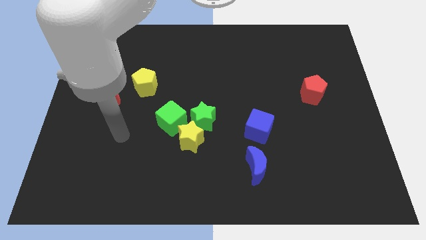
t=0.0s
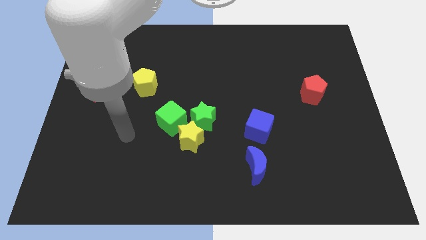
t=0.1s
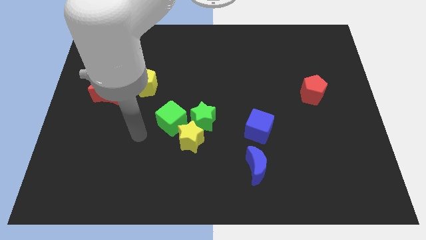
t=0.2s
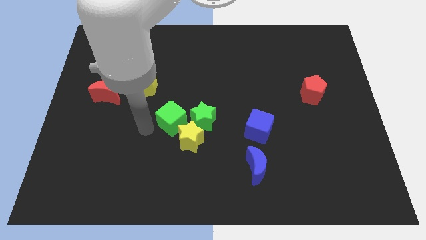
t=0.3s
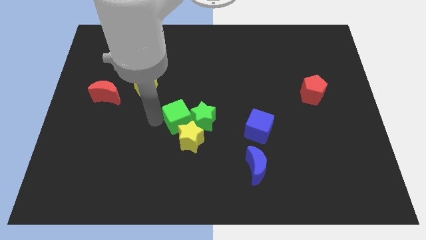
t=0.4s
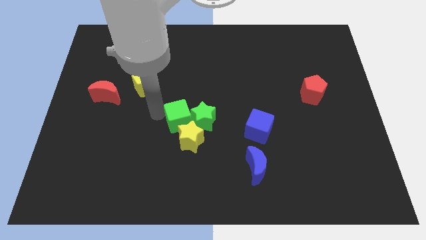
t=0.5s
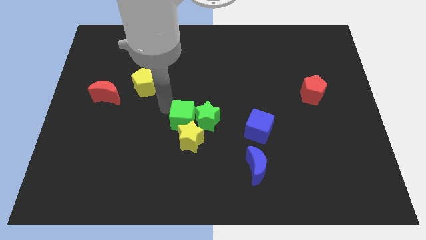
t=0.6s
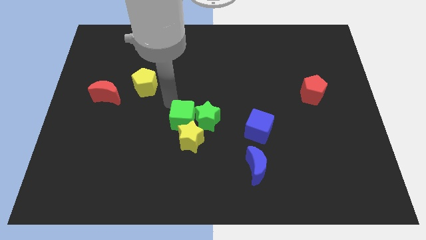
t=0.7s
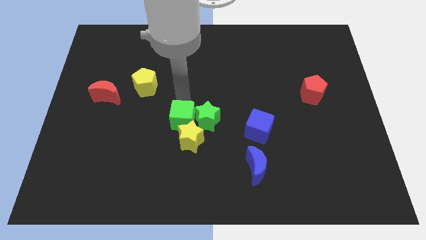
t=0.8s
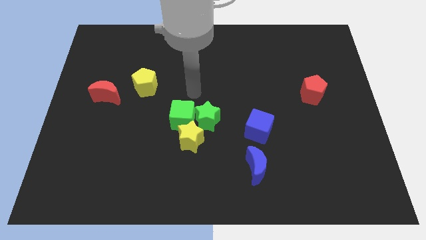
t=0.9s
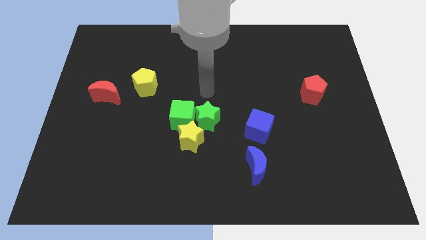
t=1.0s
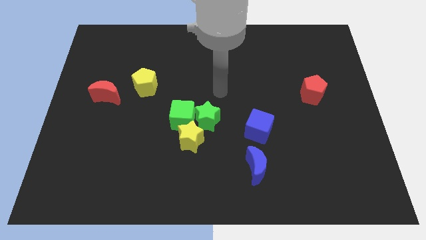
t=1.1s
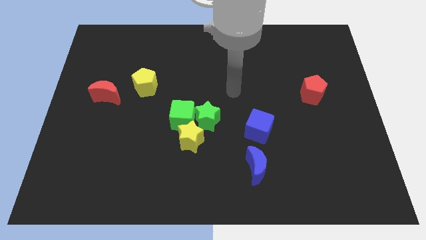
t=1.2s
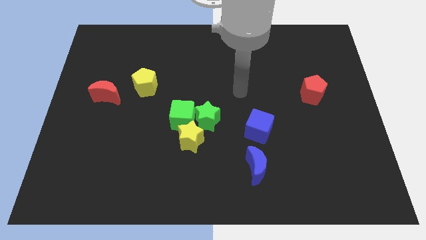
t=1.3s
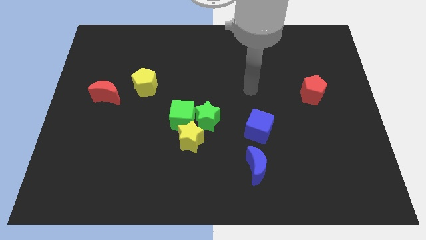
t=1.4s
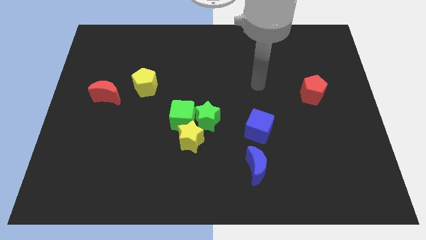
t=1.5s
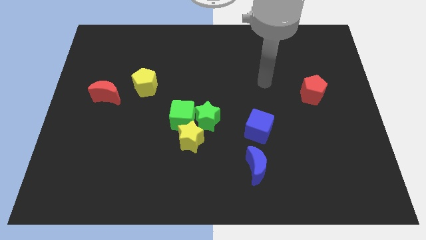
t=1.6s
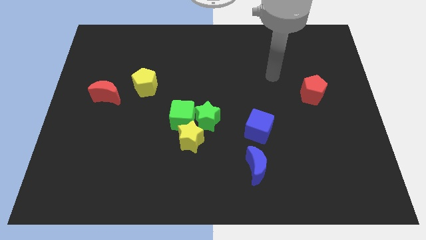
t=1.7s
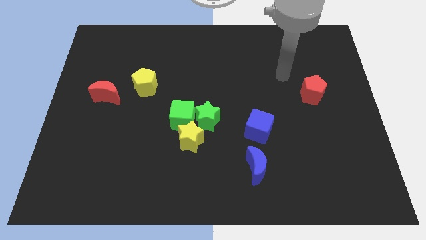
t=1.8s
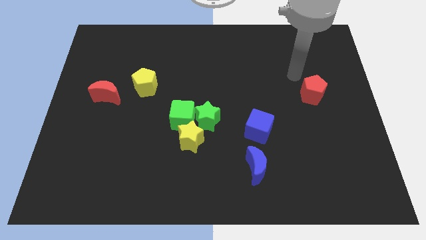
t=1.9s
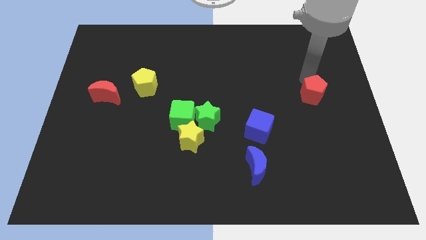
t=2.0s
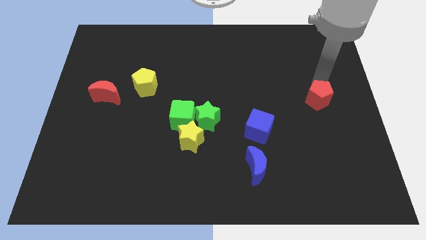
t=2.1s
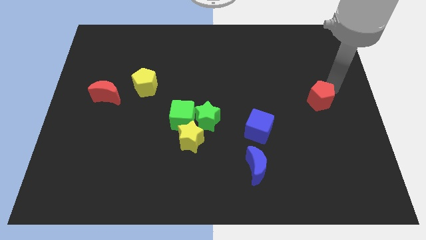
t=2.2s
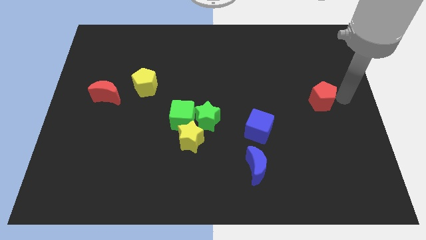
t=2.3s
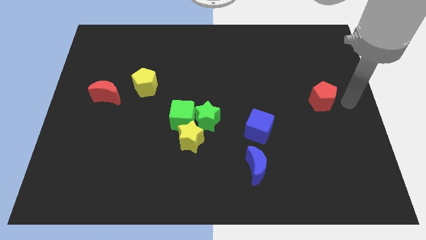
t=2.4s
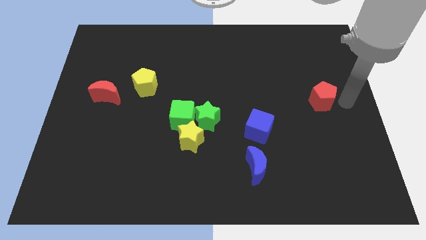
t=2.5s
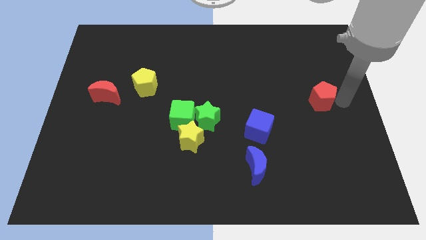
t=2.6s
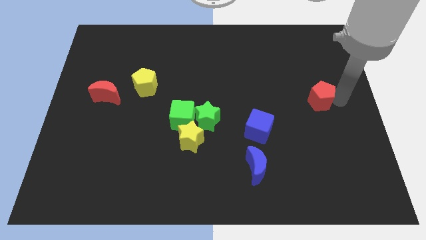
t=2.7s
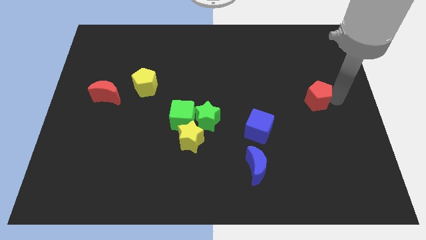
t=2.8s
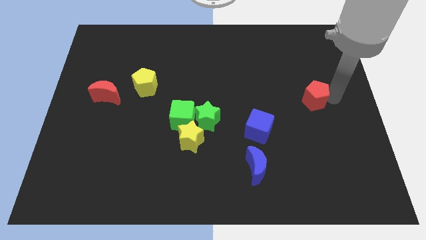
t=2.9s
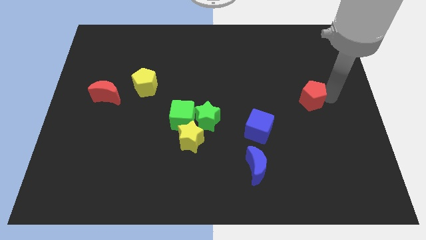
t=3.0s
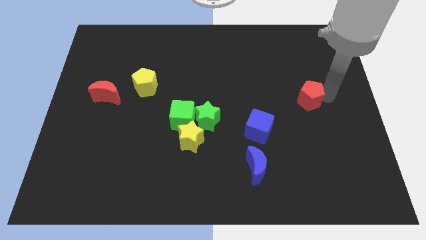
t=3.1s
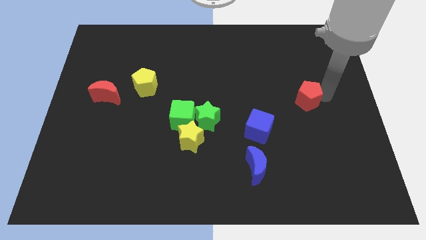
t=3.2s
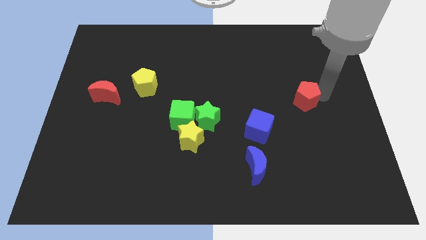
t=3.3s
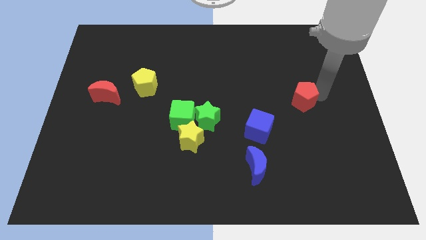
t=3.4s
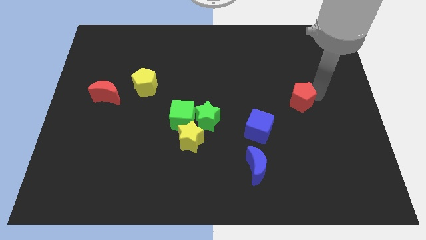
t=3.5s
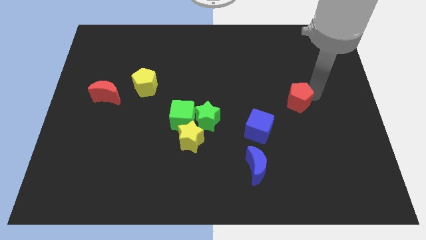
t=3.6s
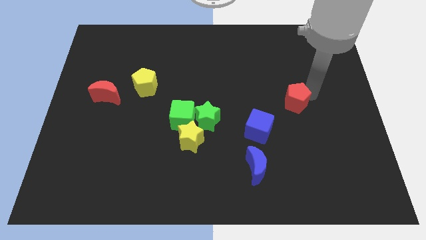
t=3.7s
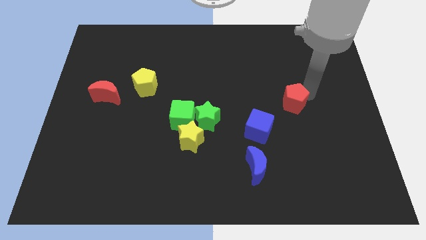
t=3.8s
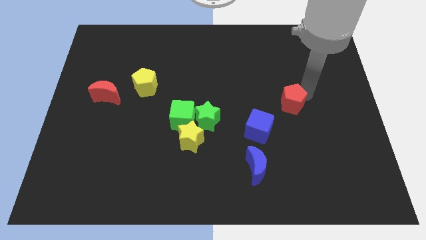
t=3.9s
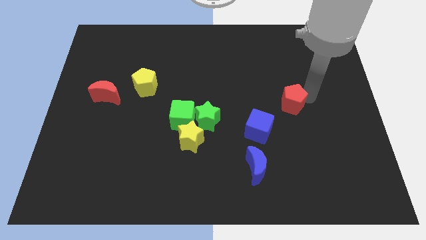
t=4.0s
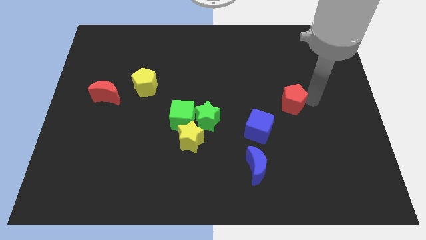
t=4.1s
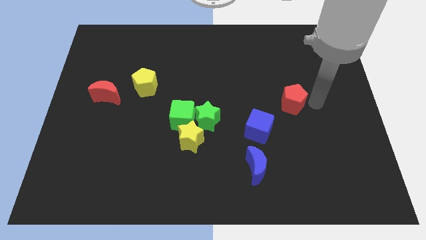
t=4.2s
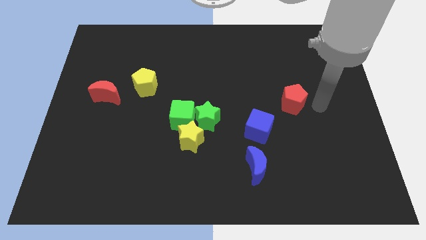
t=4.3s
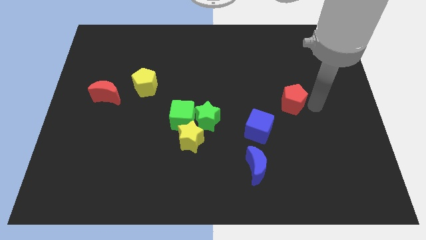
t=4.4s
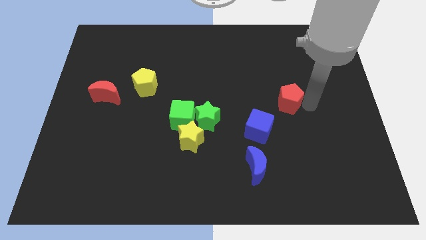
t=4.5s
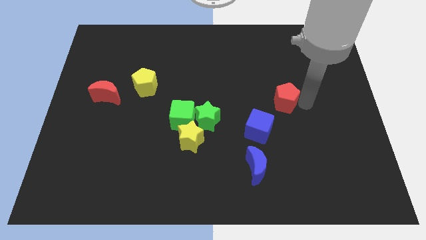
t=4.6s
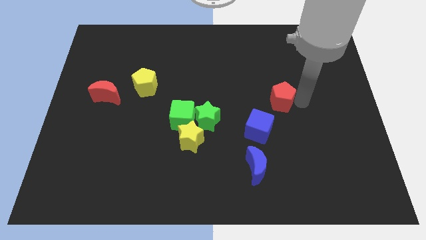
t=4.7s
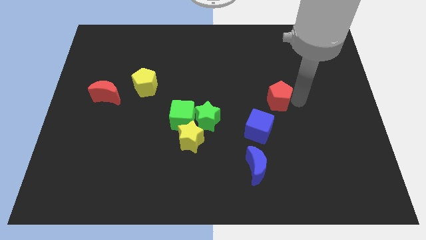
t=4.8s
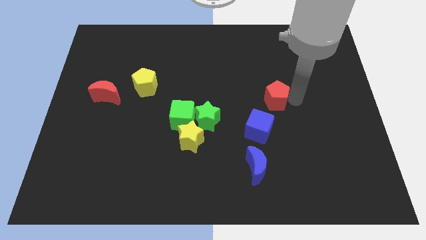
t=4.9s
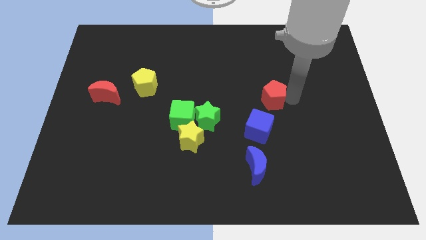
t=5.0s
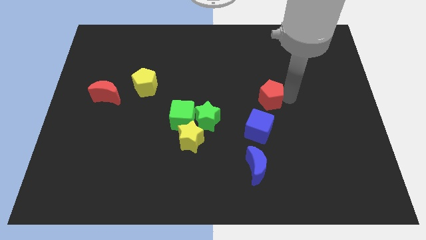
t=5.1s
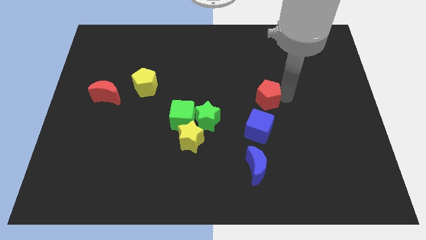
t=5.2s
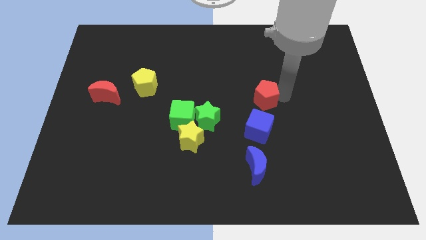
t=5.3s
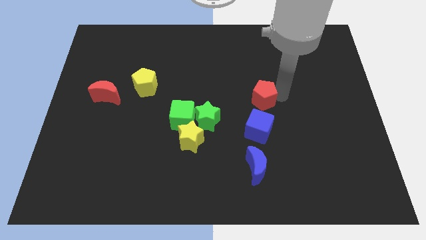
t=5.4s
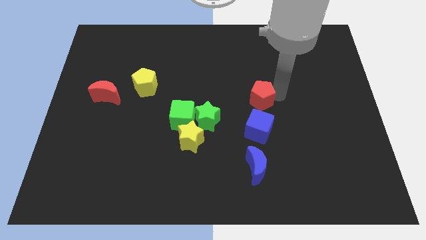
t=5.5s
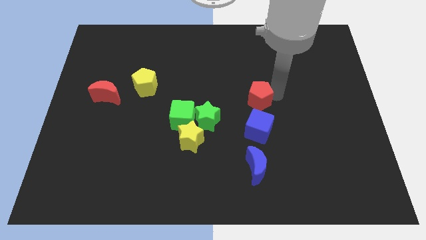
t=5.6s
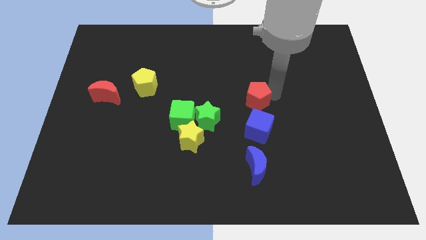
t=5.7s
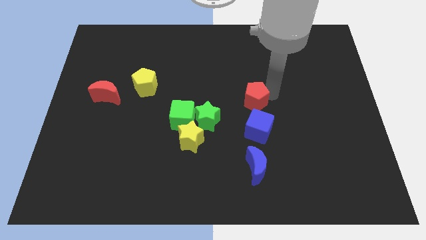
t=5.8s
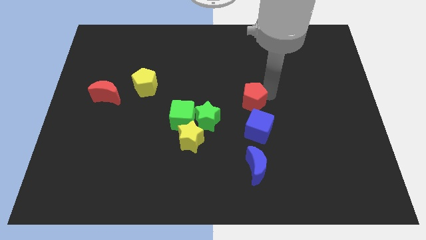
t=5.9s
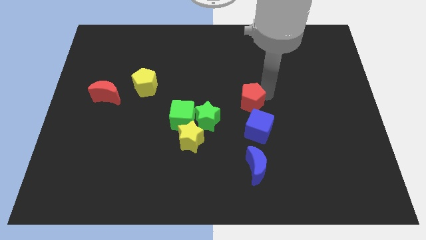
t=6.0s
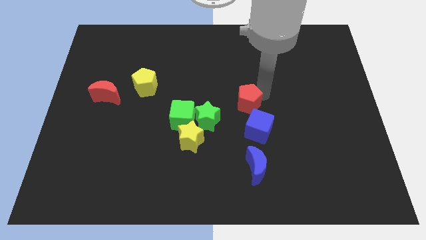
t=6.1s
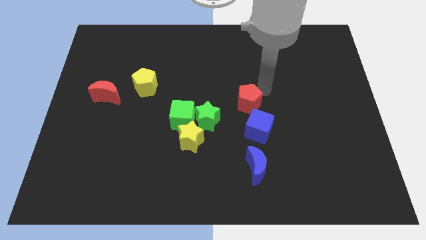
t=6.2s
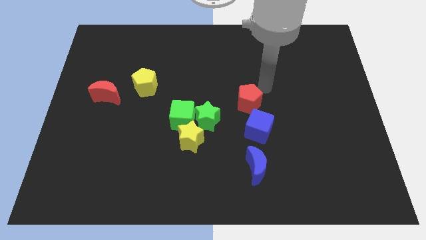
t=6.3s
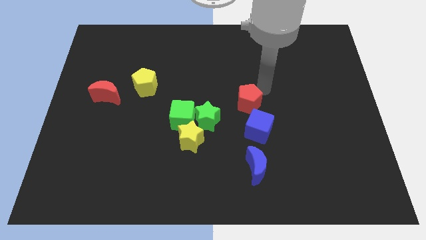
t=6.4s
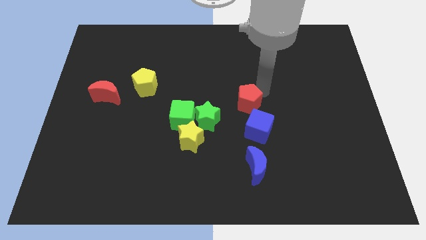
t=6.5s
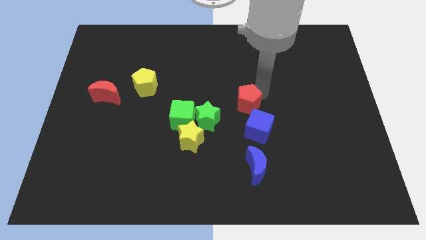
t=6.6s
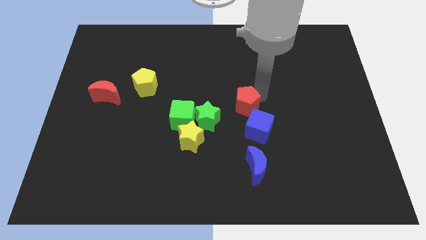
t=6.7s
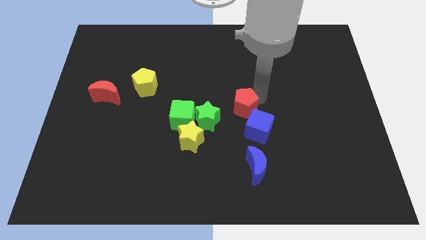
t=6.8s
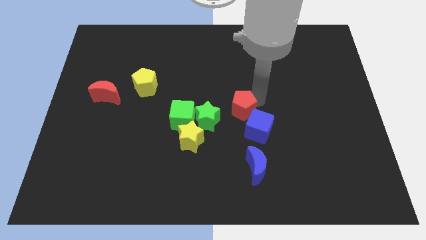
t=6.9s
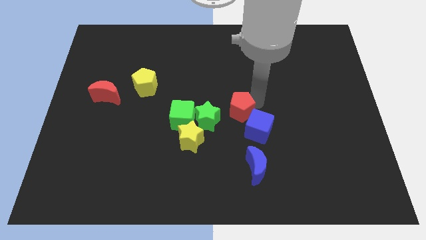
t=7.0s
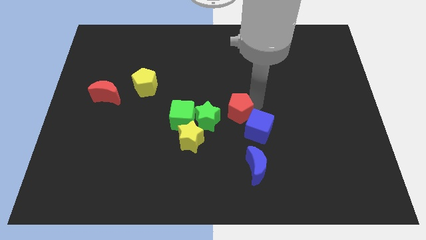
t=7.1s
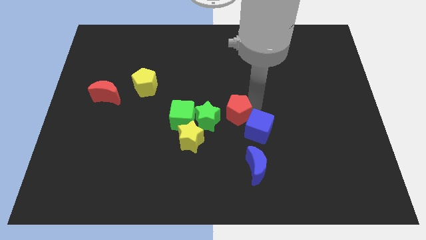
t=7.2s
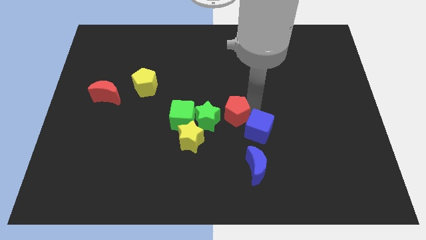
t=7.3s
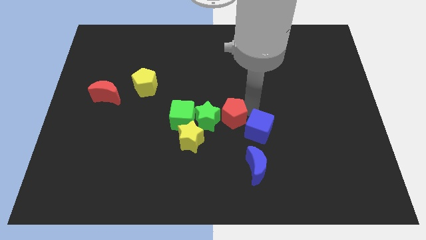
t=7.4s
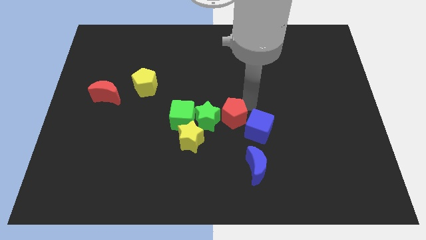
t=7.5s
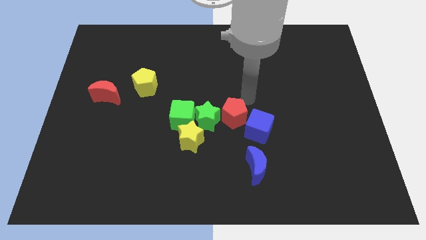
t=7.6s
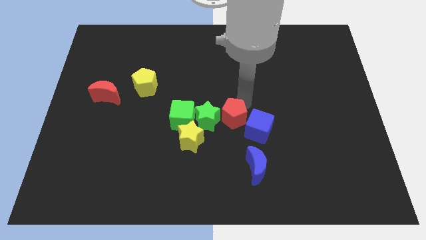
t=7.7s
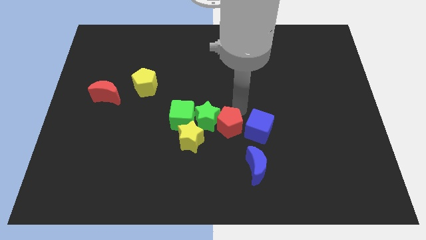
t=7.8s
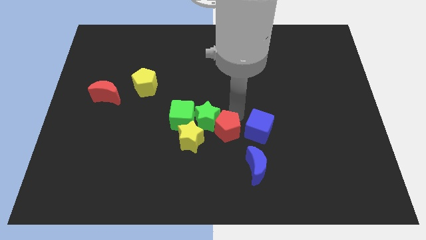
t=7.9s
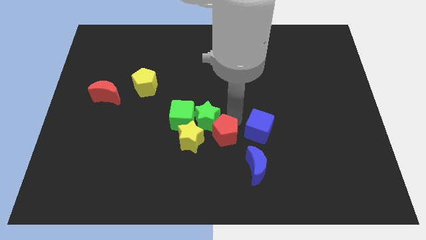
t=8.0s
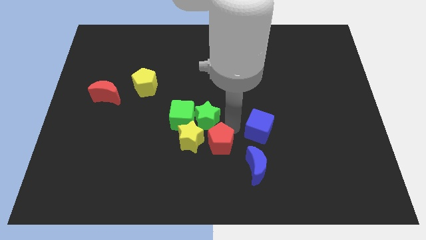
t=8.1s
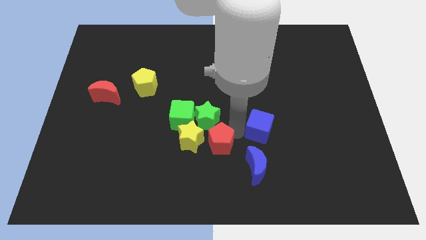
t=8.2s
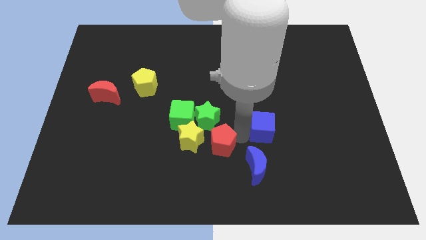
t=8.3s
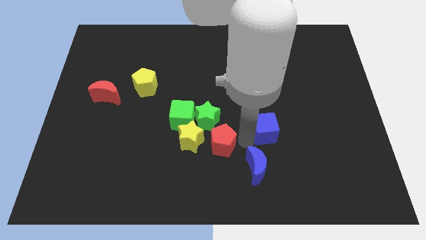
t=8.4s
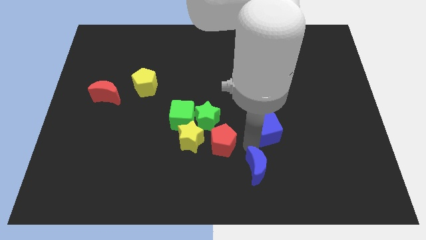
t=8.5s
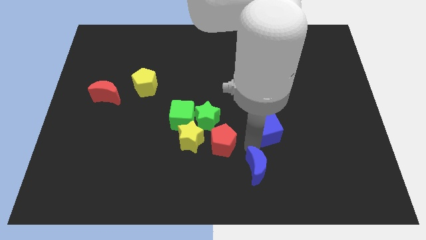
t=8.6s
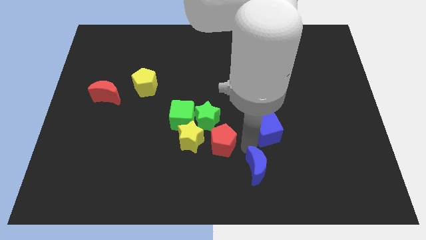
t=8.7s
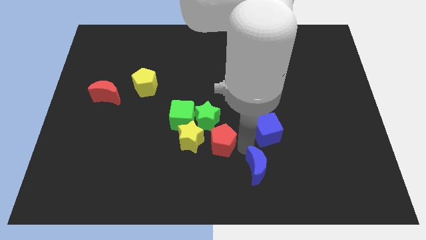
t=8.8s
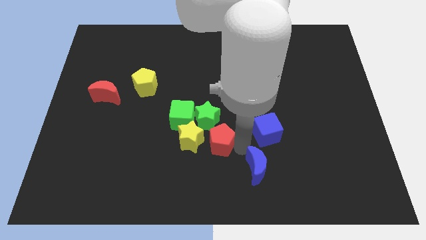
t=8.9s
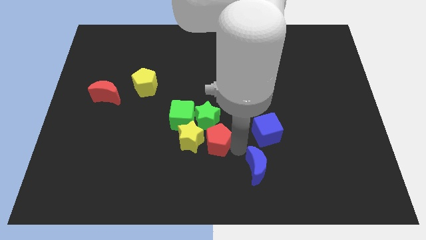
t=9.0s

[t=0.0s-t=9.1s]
slide the red pentagon to the yellow star
